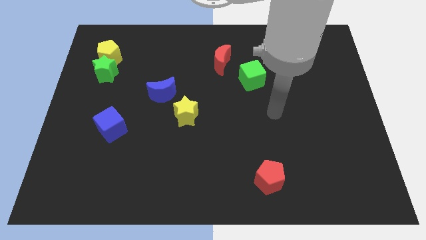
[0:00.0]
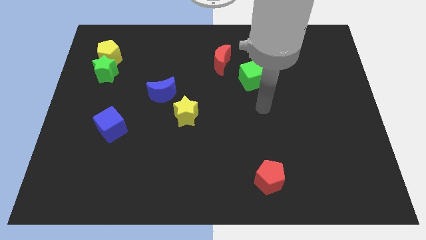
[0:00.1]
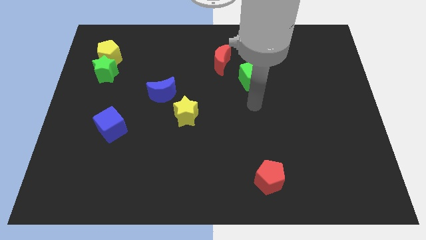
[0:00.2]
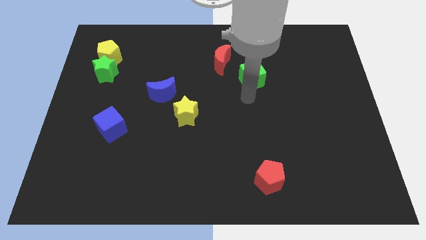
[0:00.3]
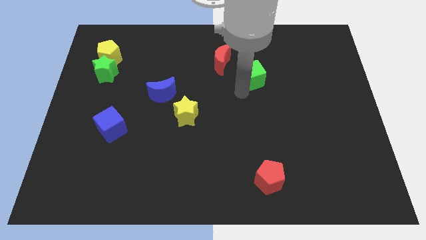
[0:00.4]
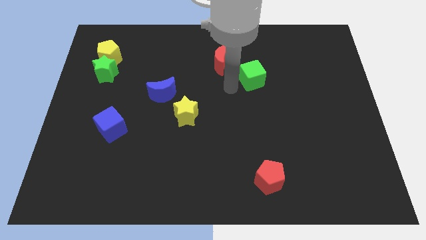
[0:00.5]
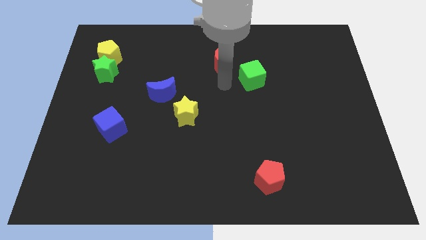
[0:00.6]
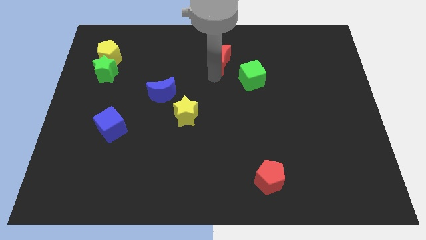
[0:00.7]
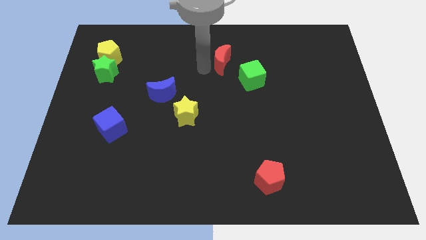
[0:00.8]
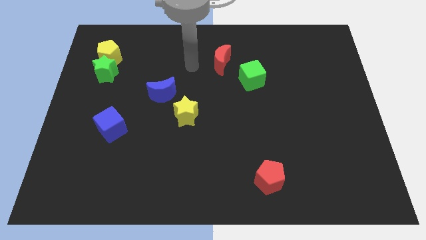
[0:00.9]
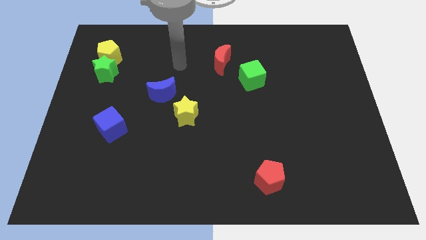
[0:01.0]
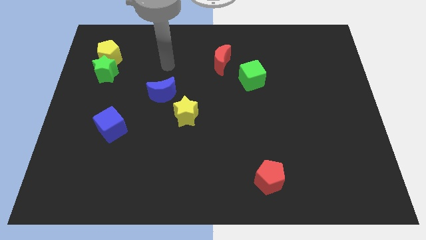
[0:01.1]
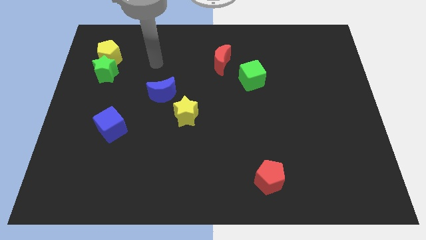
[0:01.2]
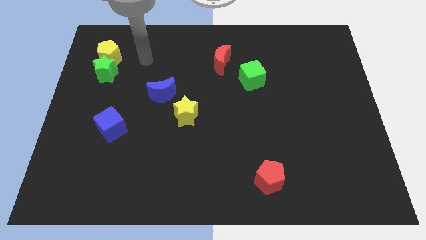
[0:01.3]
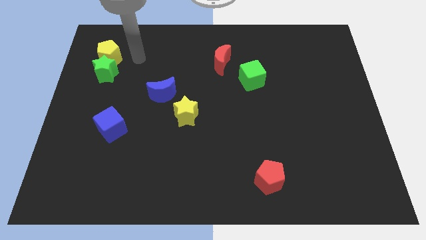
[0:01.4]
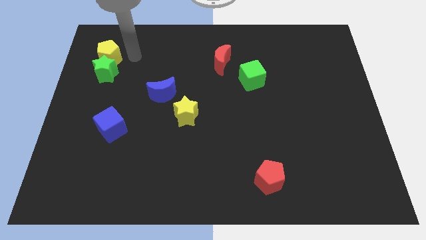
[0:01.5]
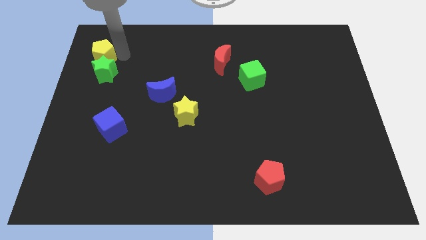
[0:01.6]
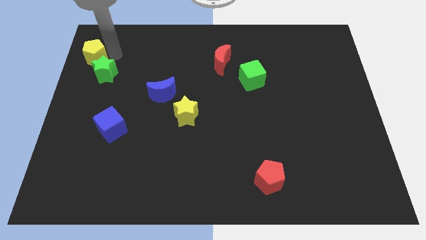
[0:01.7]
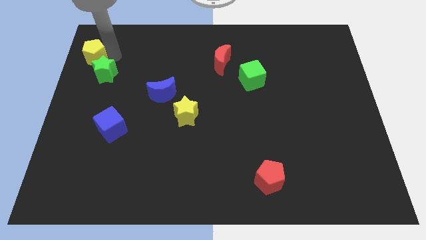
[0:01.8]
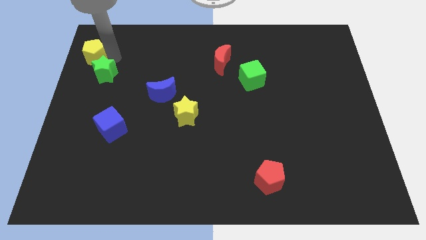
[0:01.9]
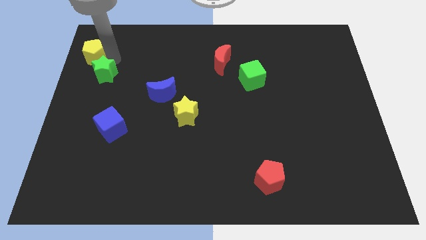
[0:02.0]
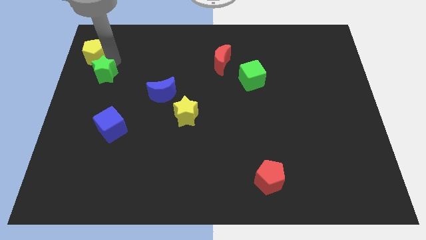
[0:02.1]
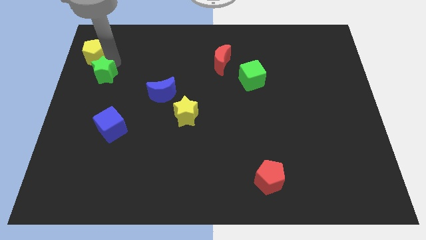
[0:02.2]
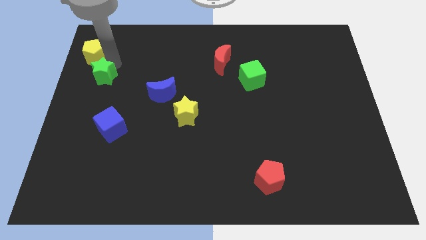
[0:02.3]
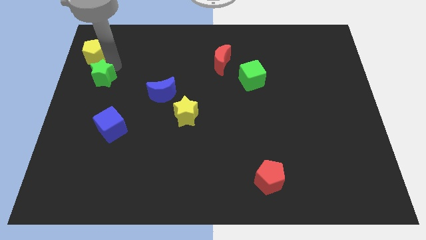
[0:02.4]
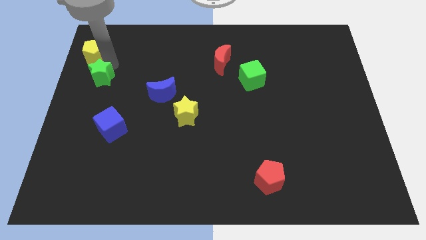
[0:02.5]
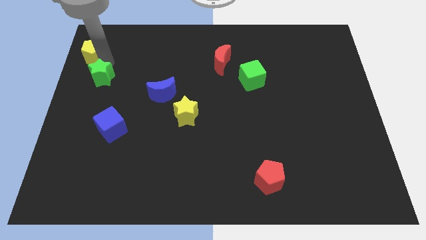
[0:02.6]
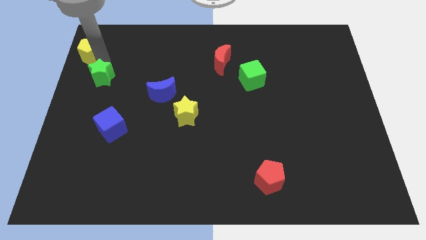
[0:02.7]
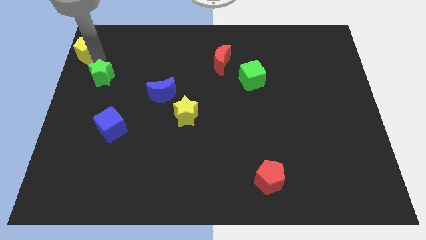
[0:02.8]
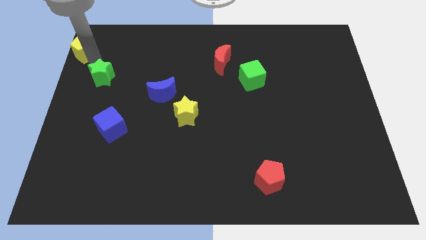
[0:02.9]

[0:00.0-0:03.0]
separate the green star from the yellow pentagon

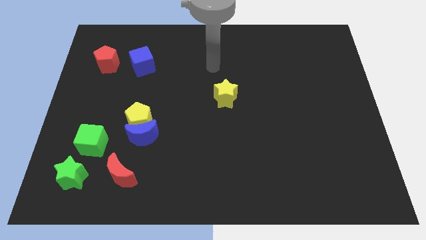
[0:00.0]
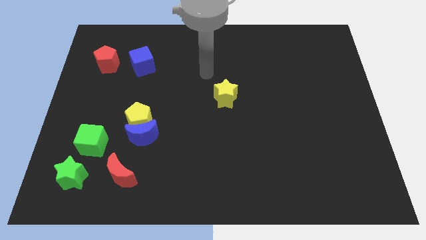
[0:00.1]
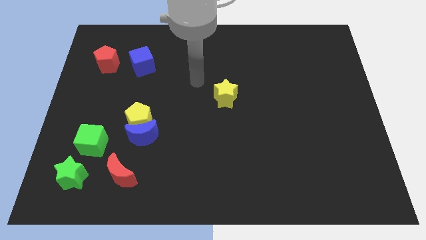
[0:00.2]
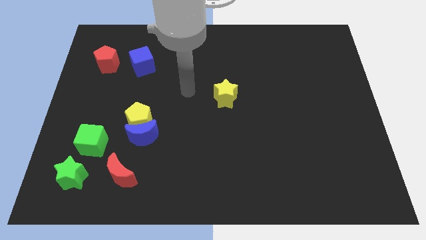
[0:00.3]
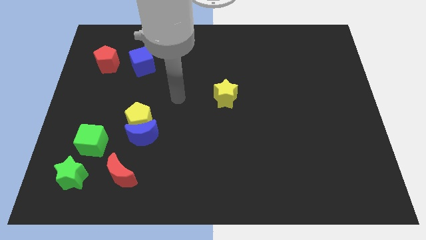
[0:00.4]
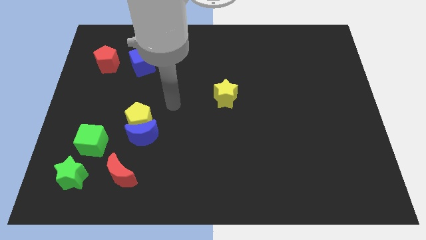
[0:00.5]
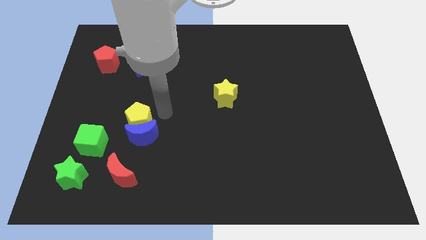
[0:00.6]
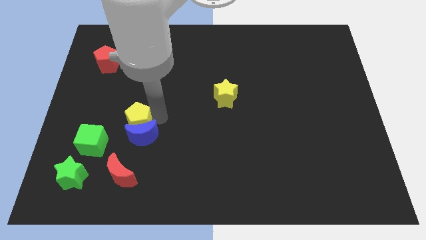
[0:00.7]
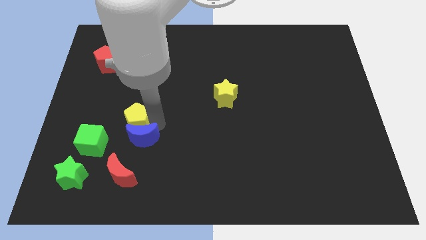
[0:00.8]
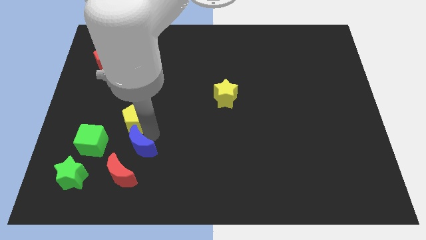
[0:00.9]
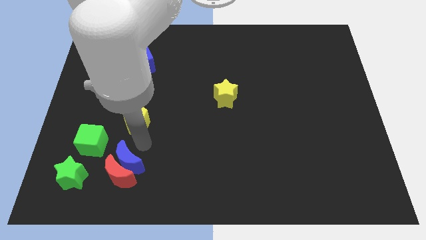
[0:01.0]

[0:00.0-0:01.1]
pull the yellow pentagon apart from the blue moon

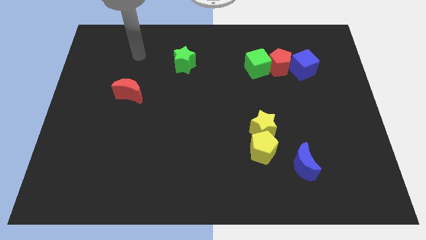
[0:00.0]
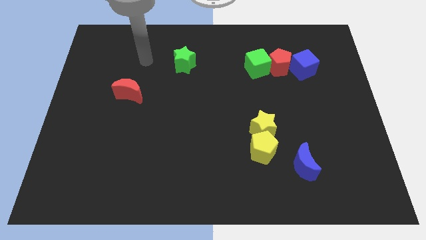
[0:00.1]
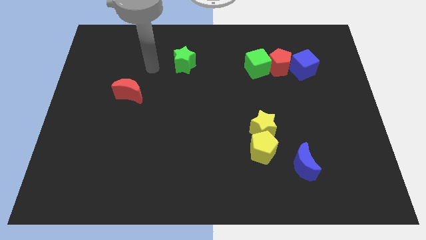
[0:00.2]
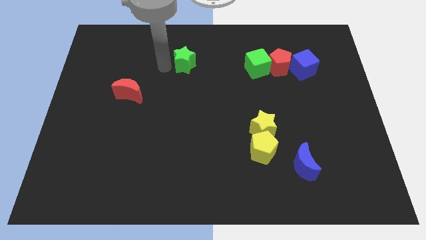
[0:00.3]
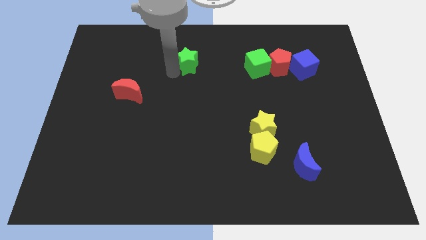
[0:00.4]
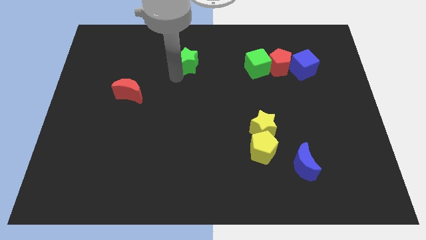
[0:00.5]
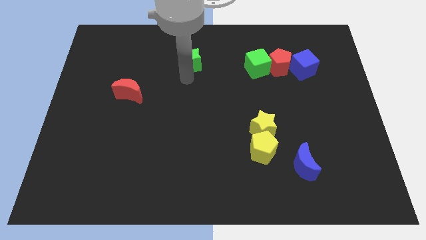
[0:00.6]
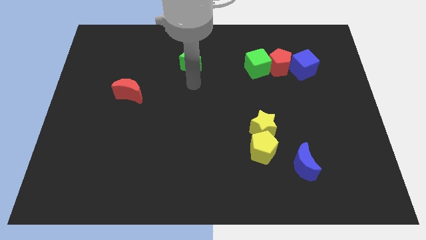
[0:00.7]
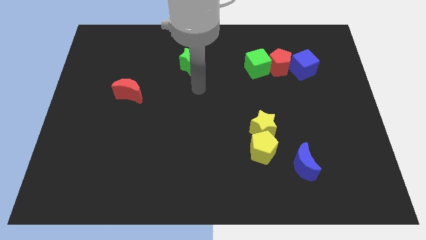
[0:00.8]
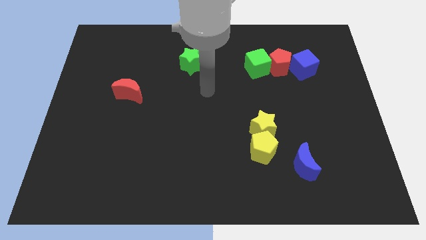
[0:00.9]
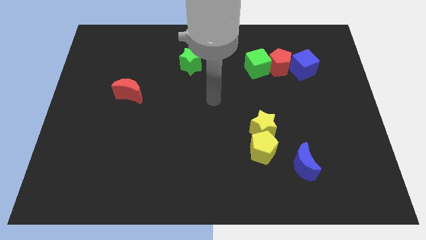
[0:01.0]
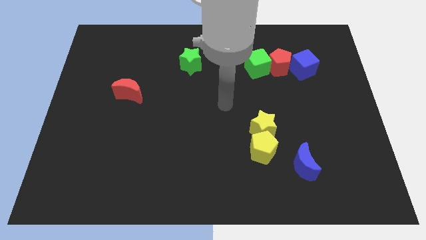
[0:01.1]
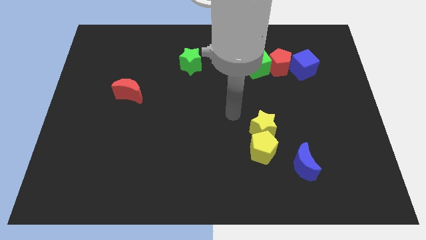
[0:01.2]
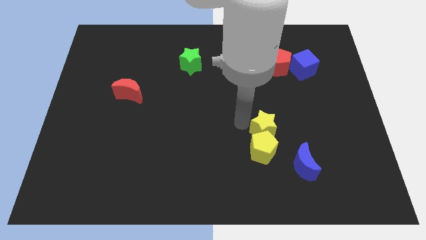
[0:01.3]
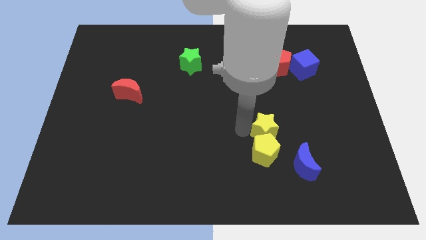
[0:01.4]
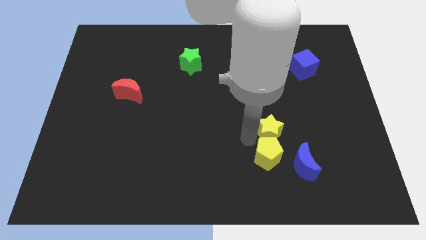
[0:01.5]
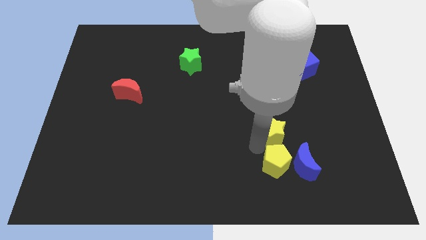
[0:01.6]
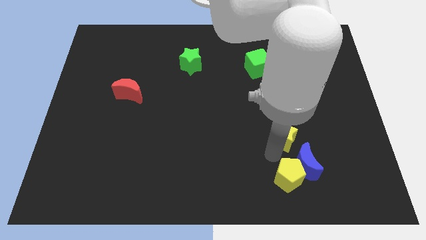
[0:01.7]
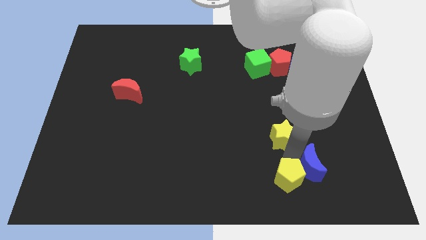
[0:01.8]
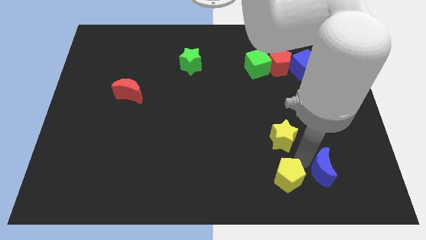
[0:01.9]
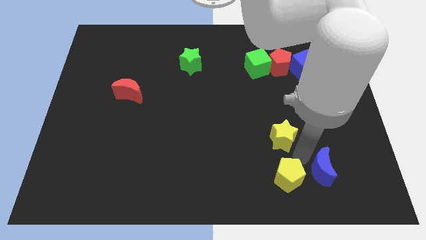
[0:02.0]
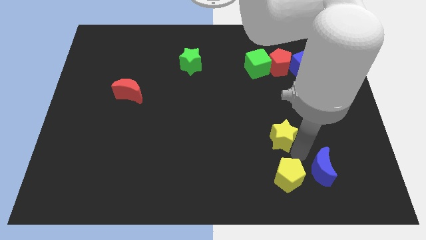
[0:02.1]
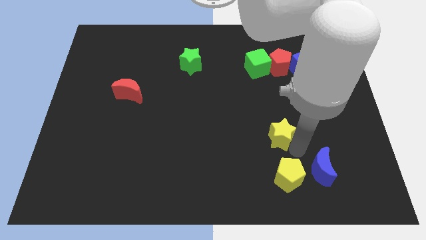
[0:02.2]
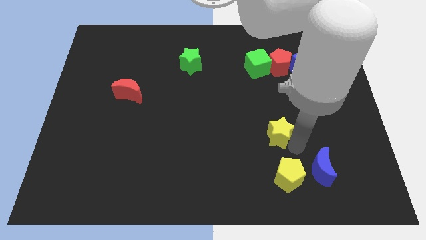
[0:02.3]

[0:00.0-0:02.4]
pull the yellow star apart from the yellow pentagon

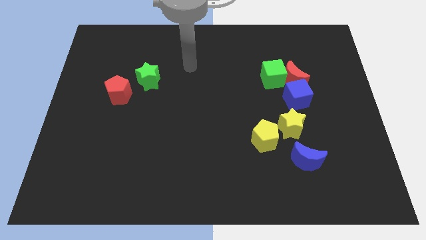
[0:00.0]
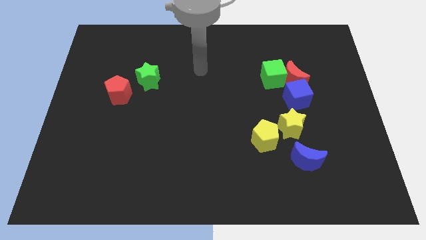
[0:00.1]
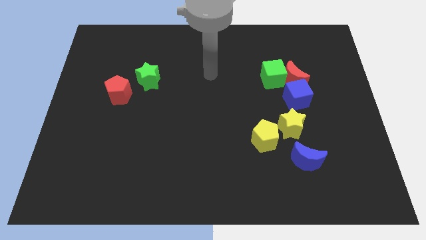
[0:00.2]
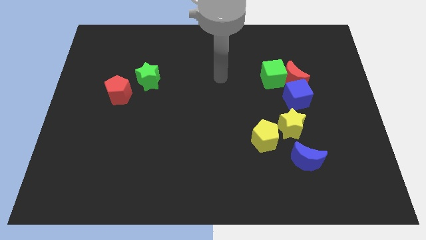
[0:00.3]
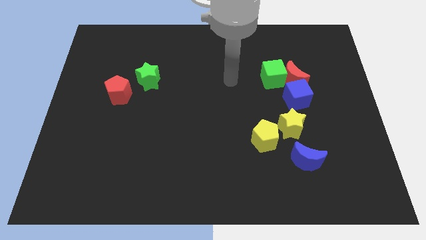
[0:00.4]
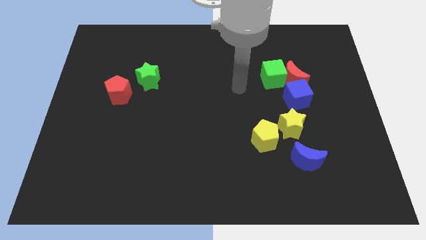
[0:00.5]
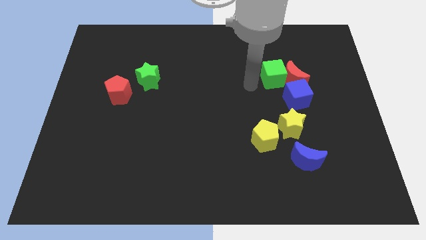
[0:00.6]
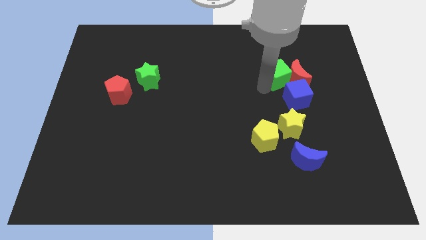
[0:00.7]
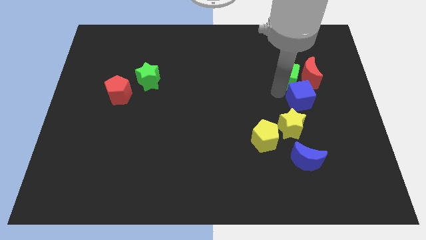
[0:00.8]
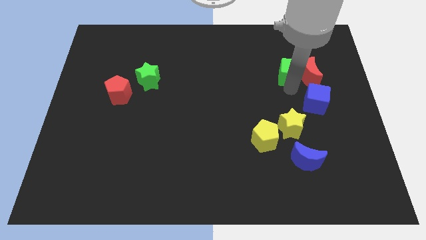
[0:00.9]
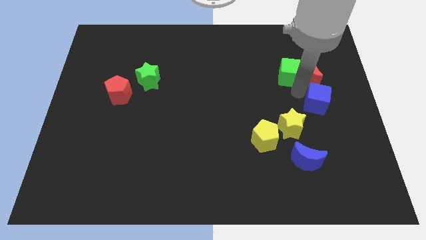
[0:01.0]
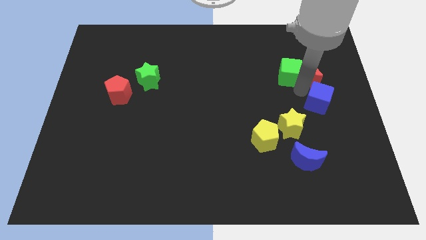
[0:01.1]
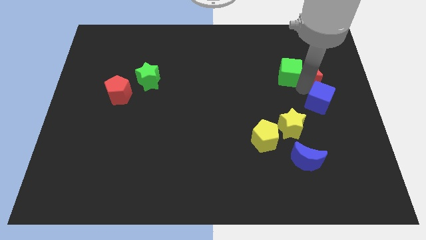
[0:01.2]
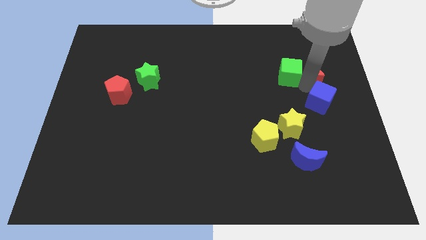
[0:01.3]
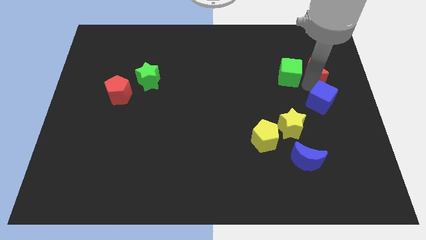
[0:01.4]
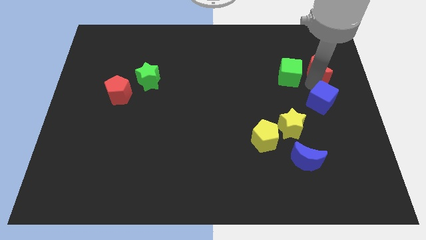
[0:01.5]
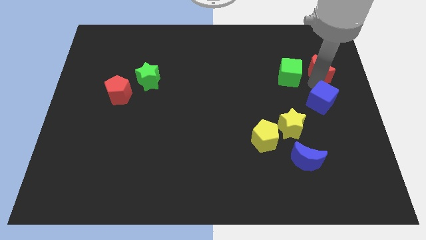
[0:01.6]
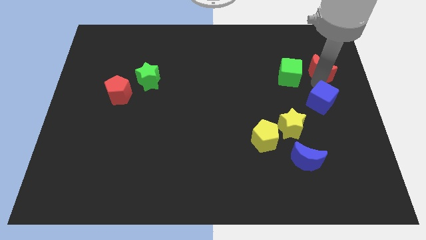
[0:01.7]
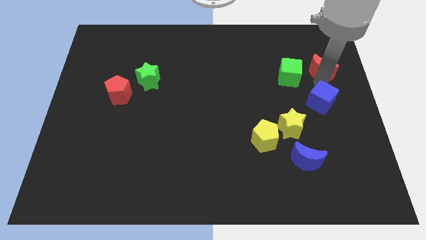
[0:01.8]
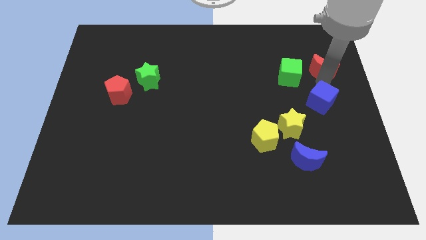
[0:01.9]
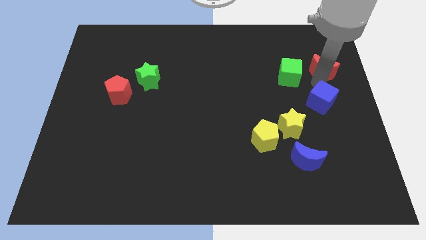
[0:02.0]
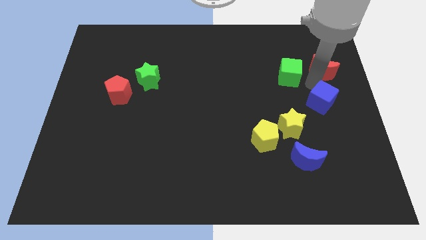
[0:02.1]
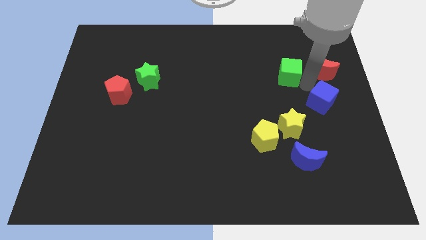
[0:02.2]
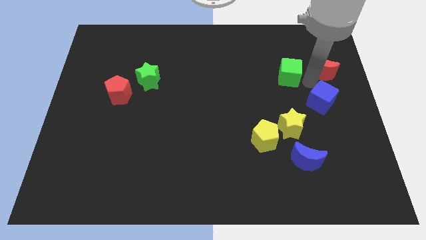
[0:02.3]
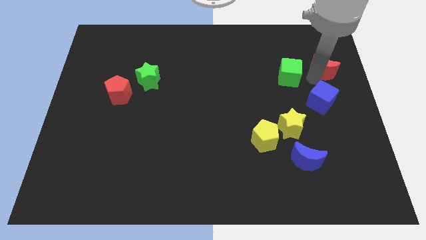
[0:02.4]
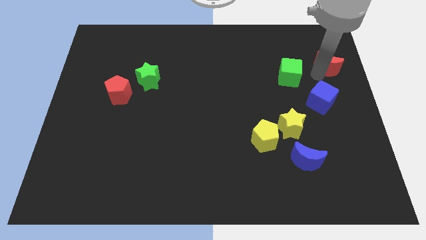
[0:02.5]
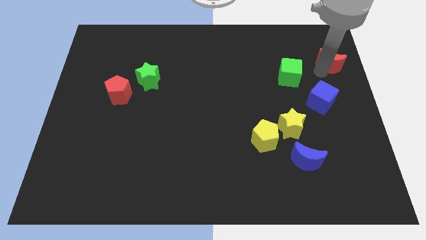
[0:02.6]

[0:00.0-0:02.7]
separate the red moon from the green cube and blue cube
